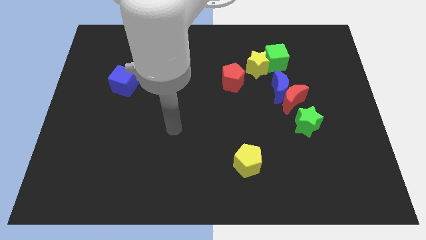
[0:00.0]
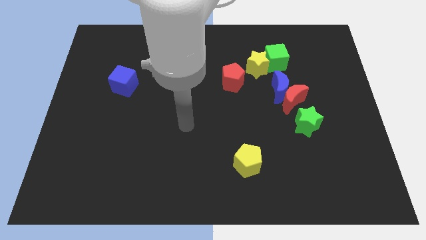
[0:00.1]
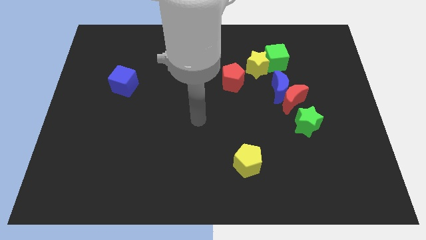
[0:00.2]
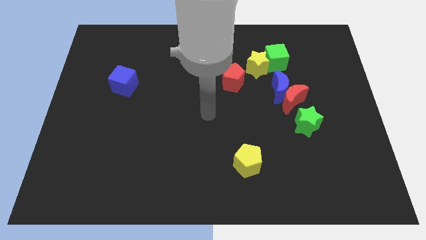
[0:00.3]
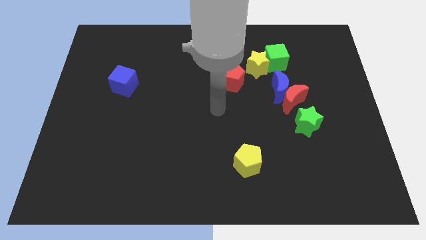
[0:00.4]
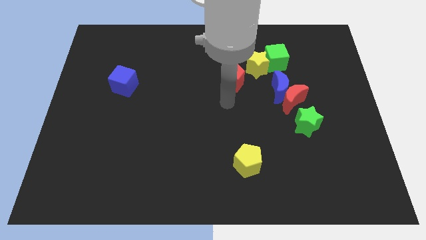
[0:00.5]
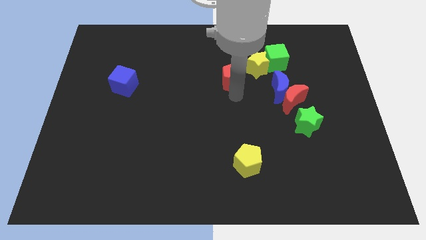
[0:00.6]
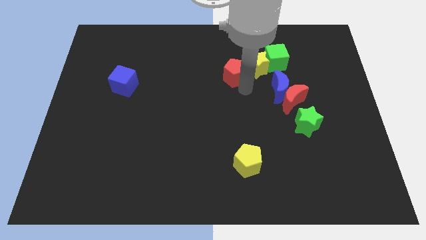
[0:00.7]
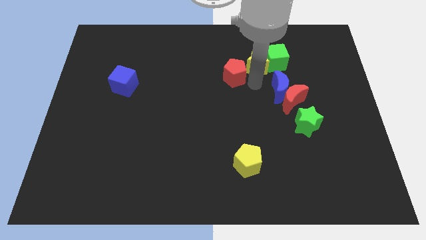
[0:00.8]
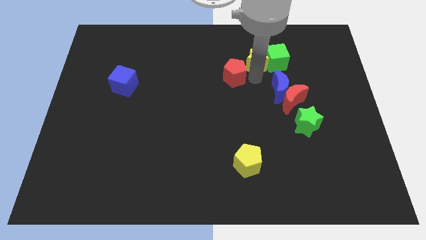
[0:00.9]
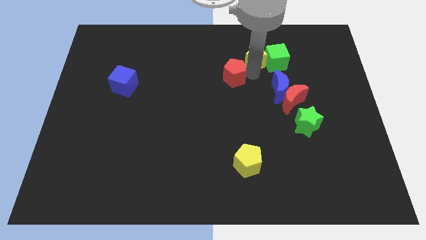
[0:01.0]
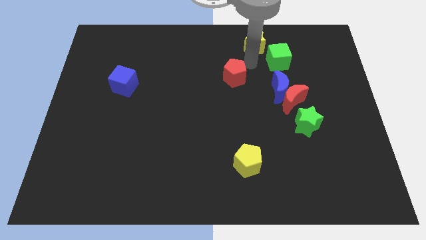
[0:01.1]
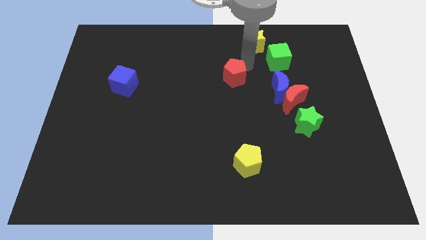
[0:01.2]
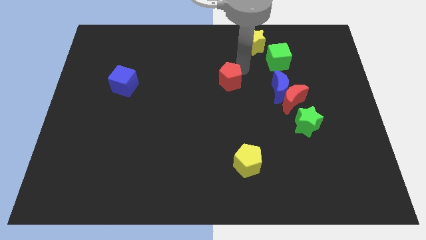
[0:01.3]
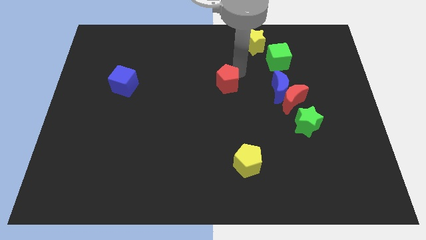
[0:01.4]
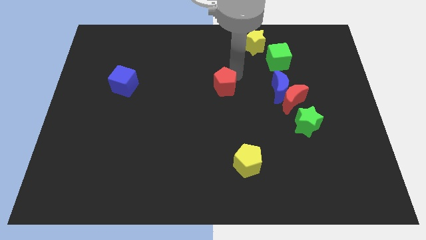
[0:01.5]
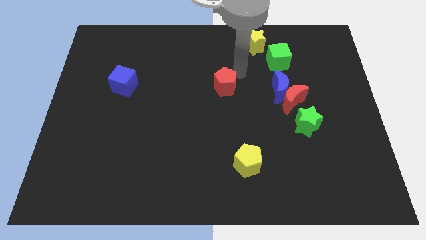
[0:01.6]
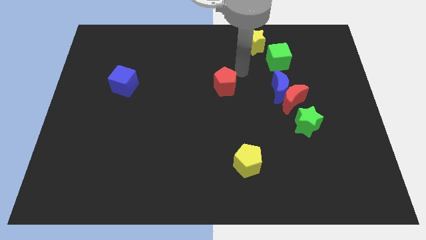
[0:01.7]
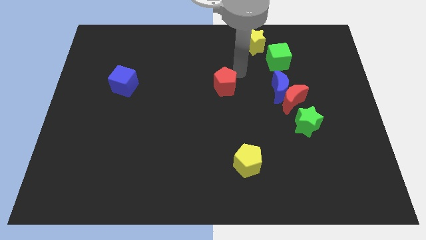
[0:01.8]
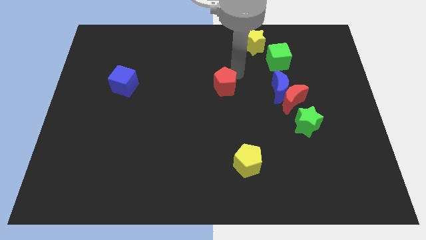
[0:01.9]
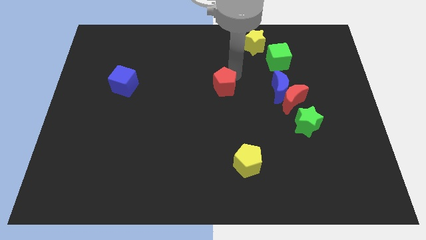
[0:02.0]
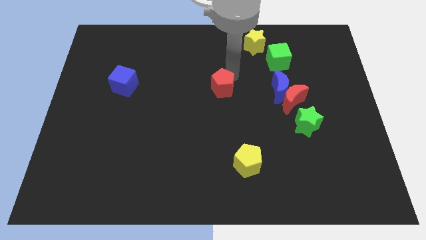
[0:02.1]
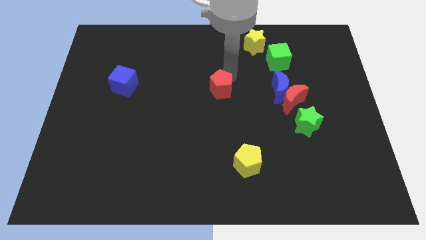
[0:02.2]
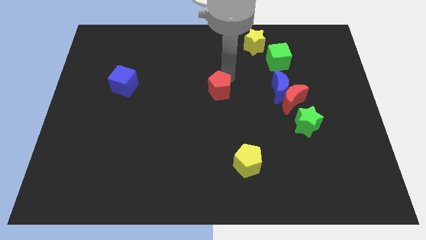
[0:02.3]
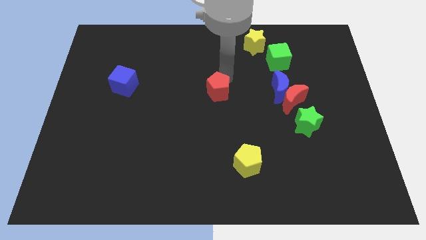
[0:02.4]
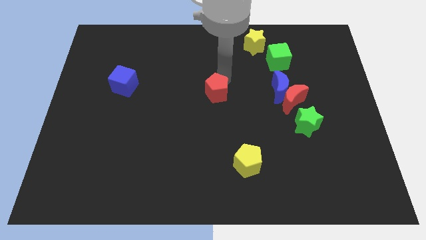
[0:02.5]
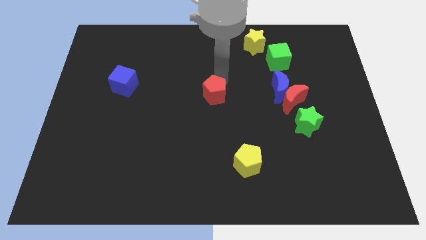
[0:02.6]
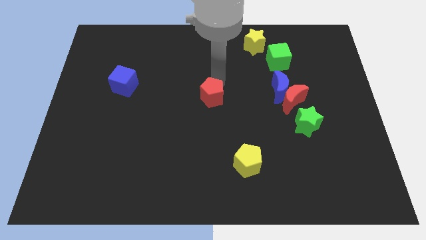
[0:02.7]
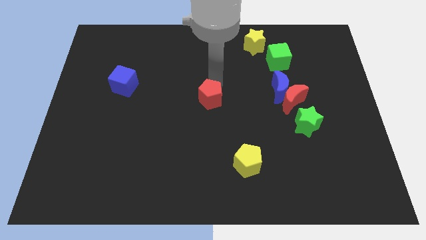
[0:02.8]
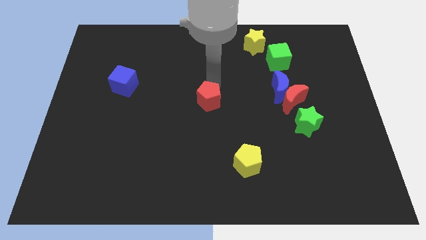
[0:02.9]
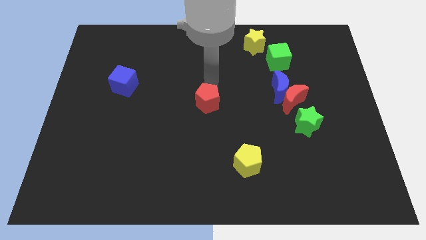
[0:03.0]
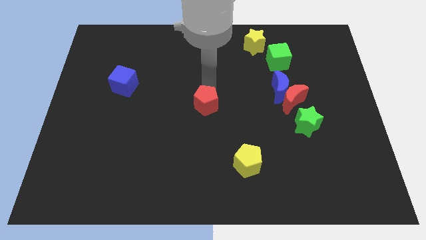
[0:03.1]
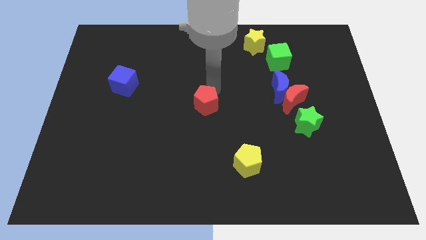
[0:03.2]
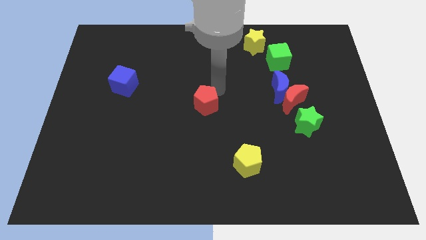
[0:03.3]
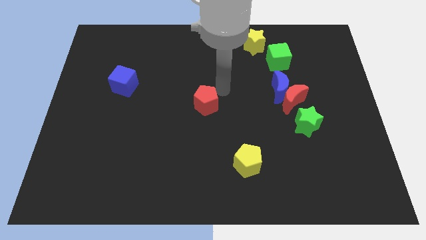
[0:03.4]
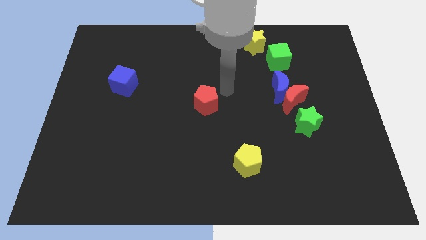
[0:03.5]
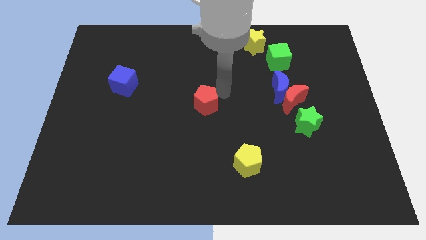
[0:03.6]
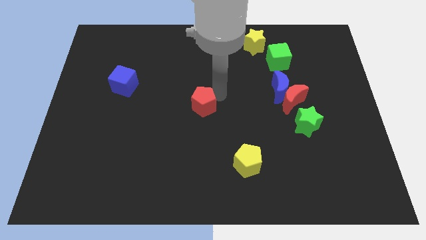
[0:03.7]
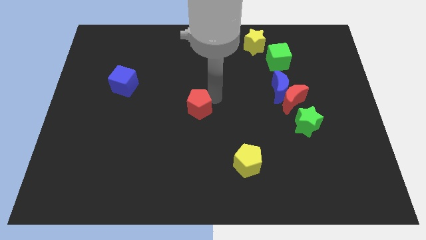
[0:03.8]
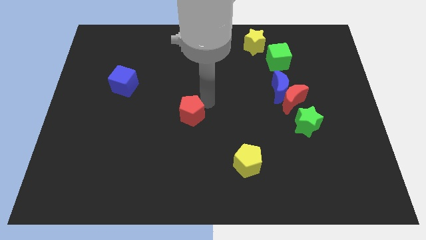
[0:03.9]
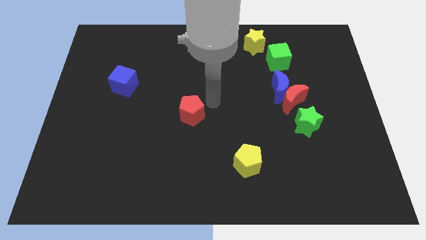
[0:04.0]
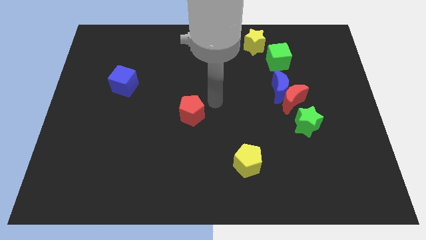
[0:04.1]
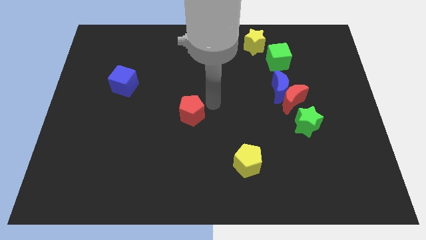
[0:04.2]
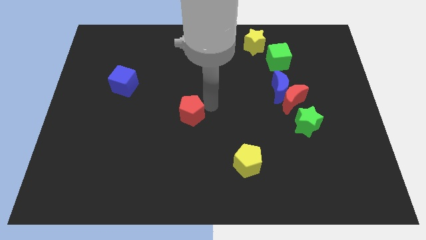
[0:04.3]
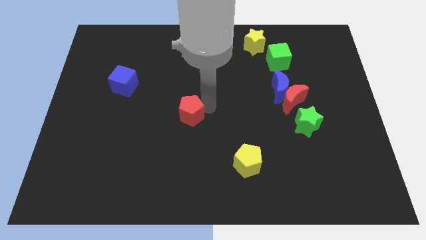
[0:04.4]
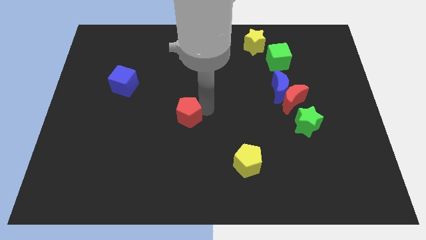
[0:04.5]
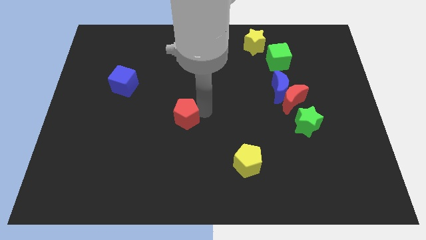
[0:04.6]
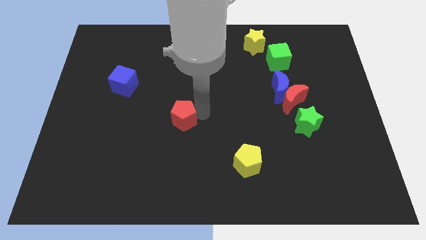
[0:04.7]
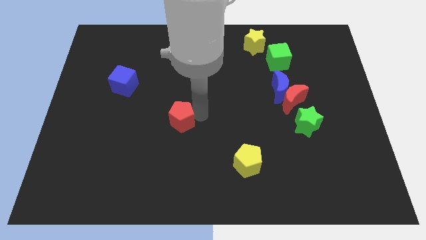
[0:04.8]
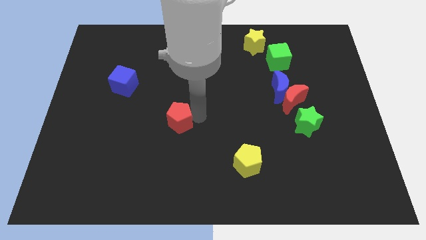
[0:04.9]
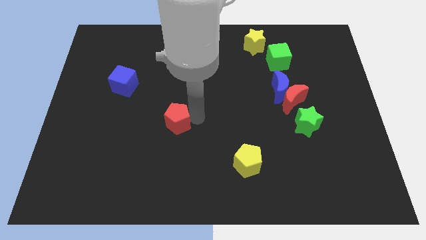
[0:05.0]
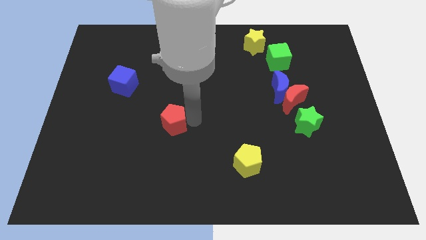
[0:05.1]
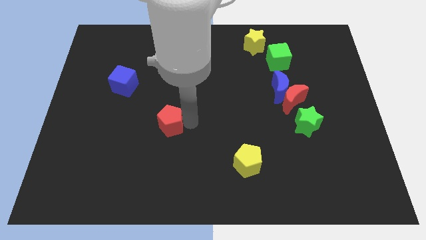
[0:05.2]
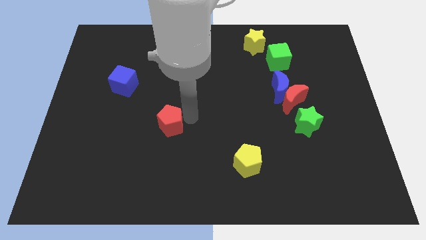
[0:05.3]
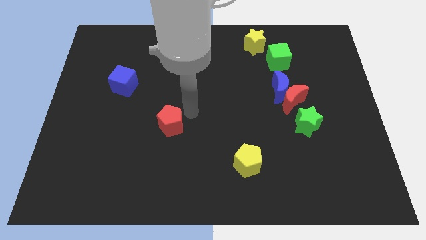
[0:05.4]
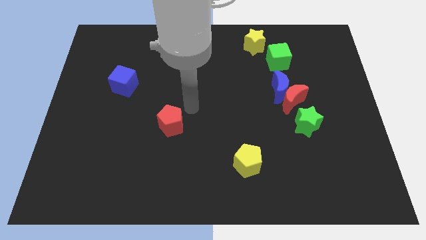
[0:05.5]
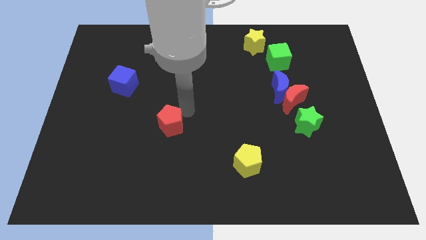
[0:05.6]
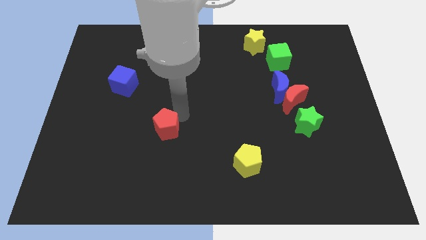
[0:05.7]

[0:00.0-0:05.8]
slide the red pentagon downwards and to the left

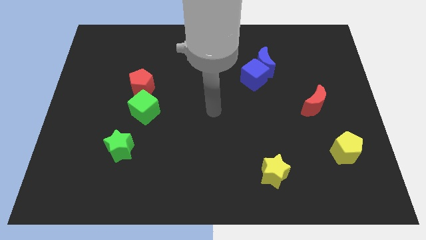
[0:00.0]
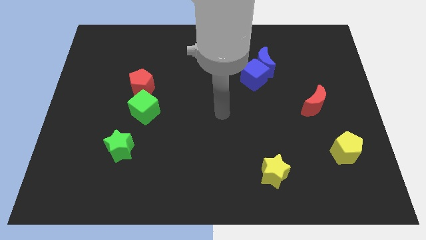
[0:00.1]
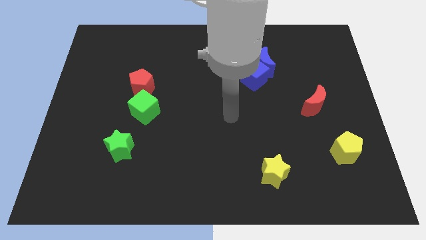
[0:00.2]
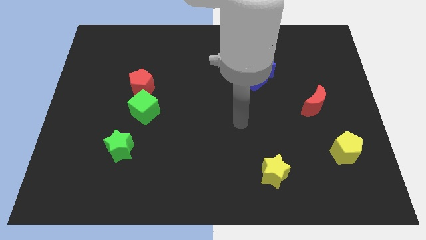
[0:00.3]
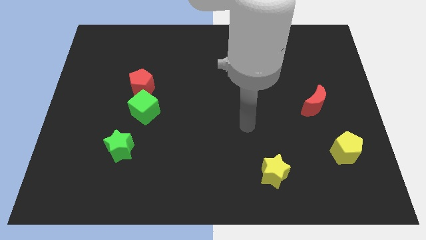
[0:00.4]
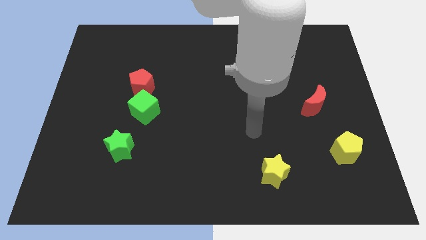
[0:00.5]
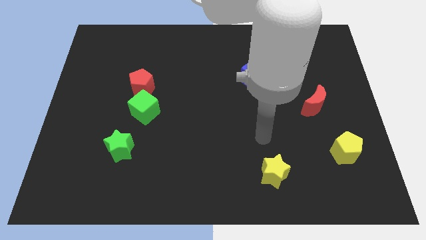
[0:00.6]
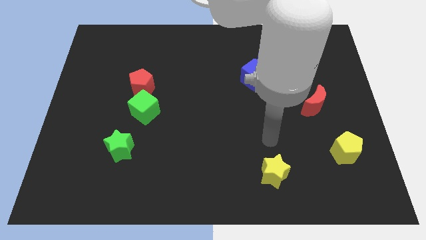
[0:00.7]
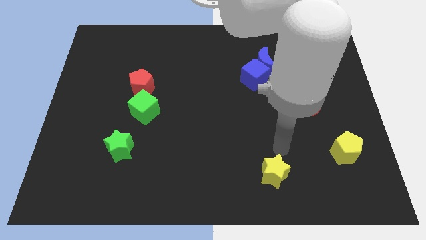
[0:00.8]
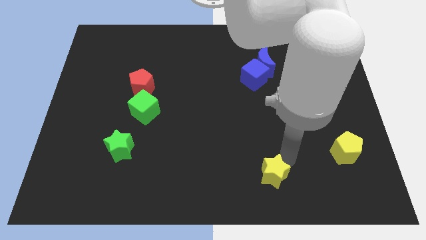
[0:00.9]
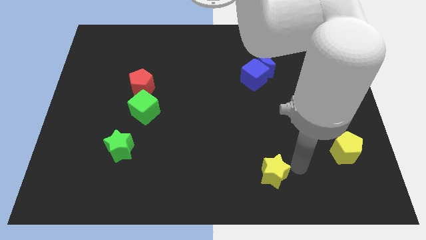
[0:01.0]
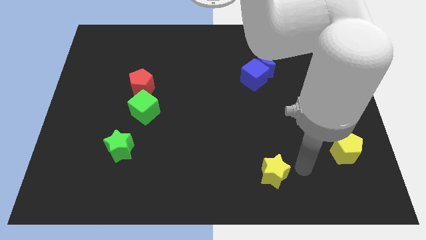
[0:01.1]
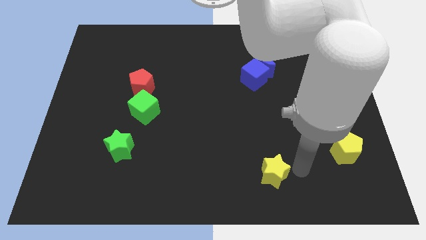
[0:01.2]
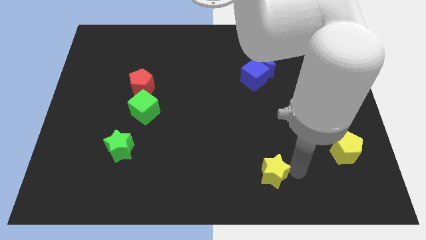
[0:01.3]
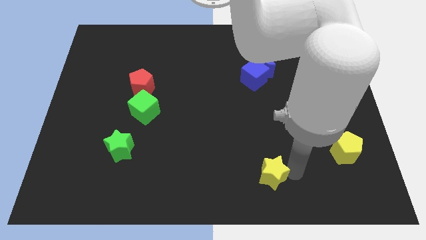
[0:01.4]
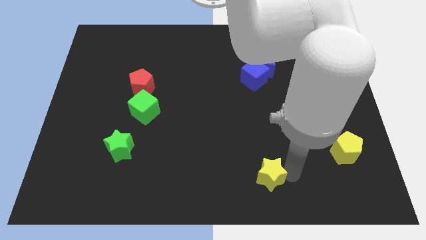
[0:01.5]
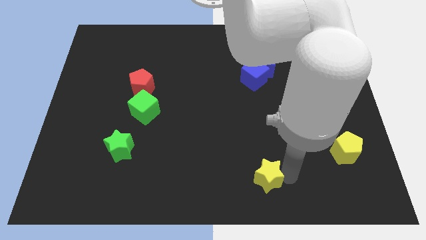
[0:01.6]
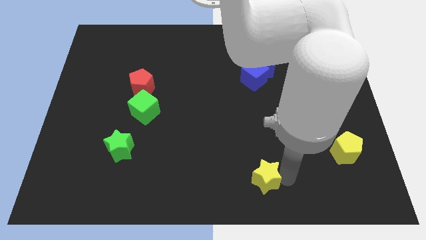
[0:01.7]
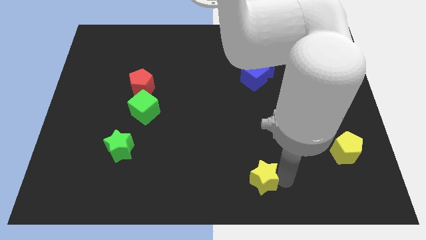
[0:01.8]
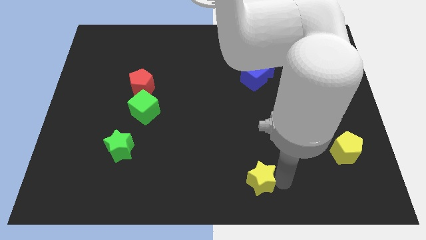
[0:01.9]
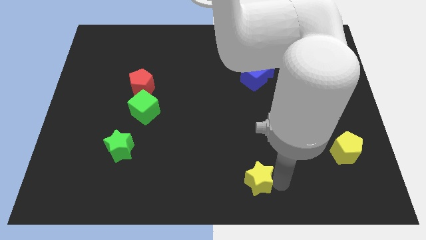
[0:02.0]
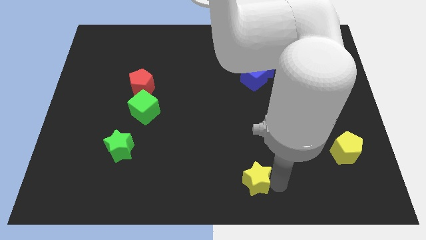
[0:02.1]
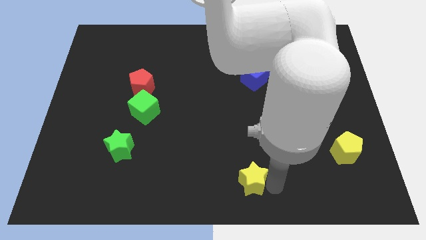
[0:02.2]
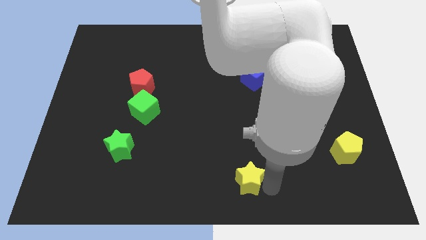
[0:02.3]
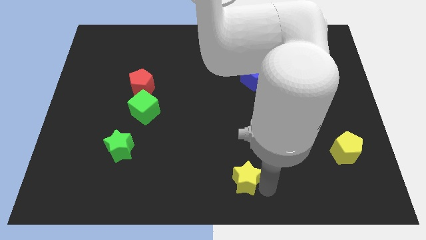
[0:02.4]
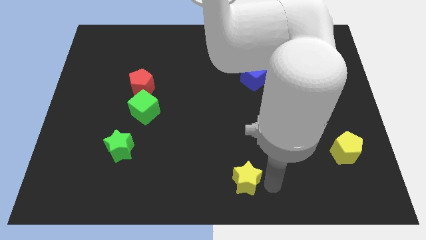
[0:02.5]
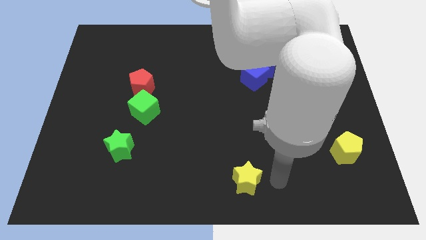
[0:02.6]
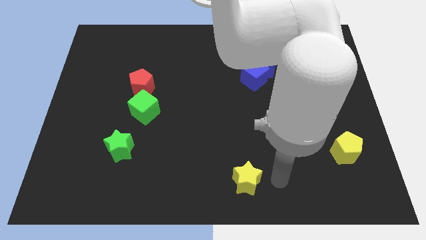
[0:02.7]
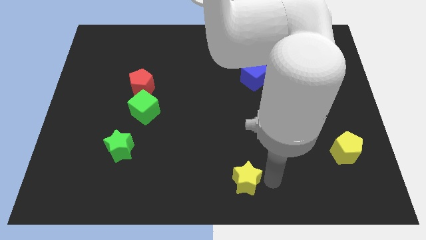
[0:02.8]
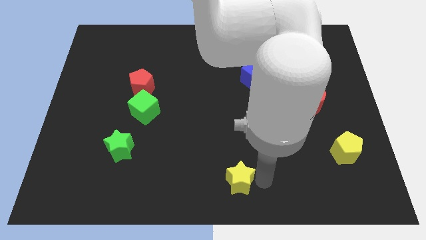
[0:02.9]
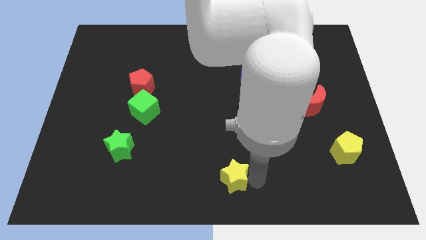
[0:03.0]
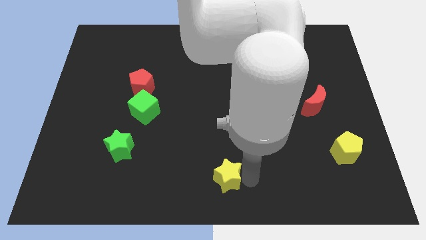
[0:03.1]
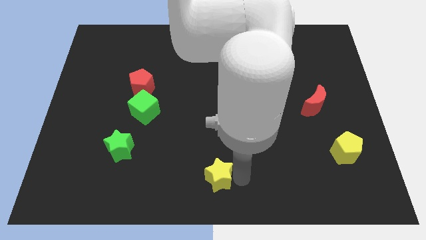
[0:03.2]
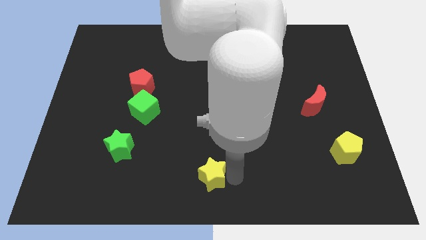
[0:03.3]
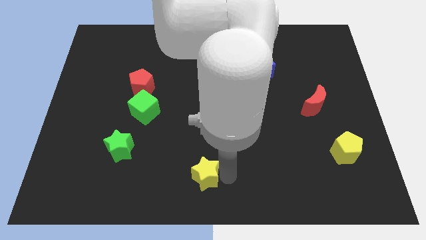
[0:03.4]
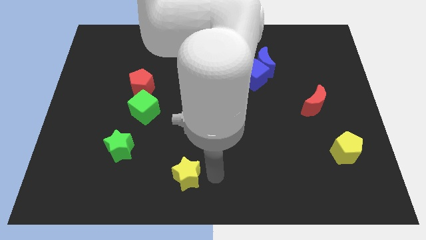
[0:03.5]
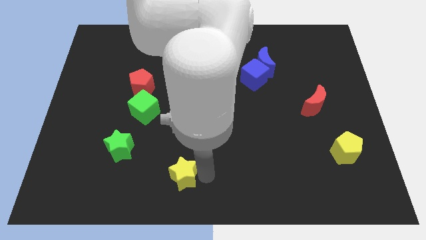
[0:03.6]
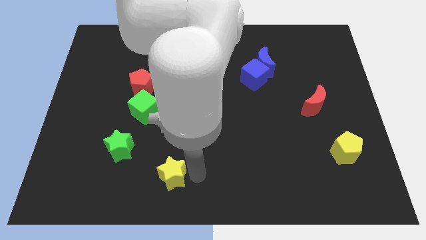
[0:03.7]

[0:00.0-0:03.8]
slide the yellow star left
